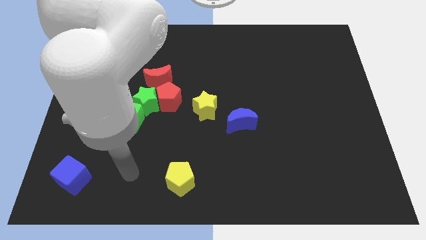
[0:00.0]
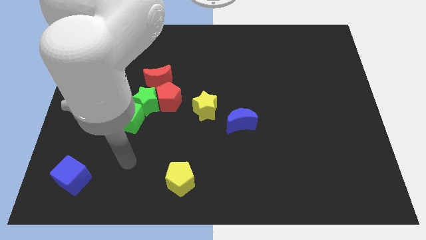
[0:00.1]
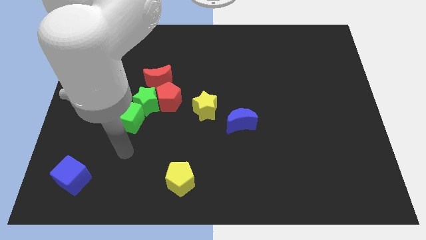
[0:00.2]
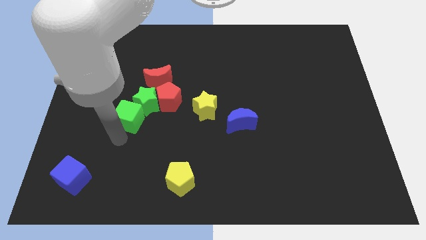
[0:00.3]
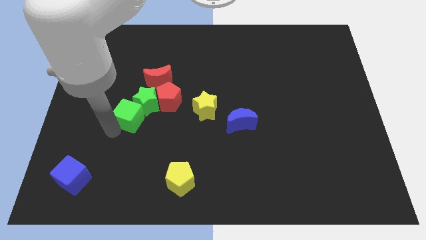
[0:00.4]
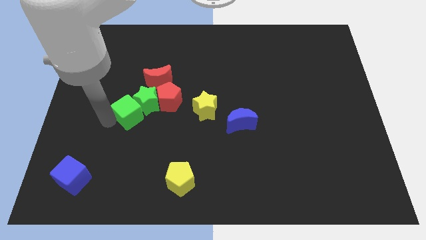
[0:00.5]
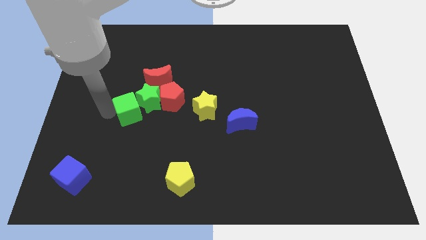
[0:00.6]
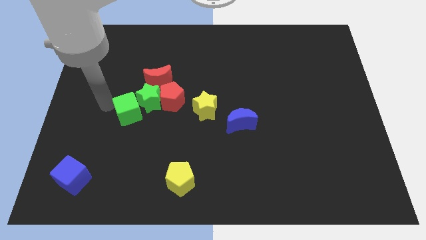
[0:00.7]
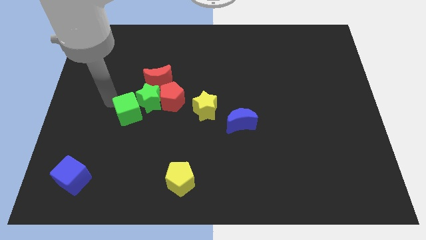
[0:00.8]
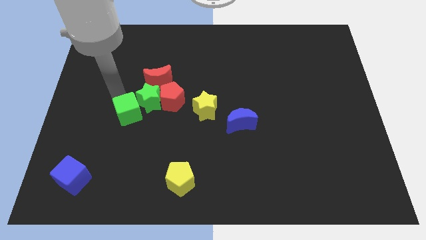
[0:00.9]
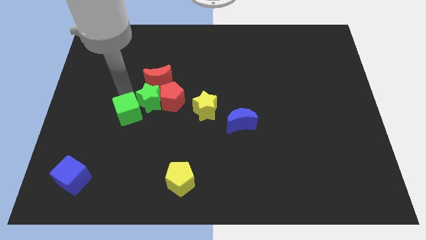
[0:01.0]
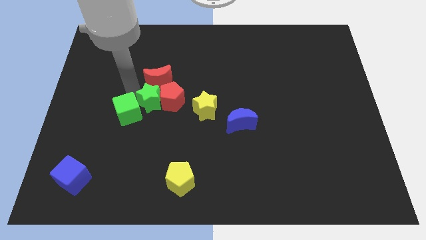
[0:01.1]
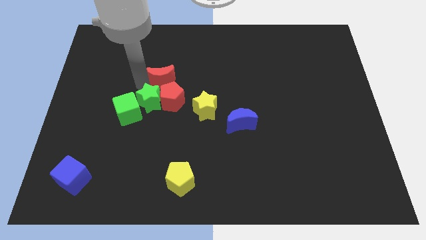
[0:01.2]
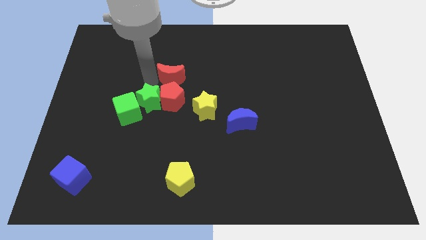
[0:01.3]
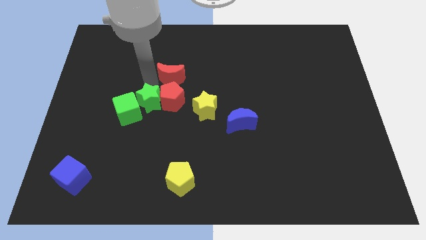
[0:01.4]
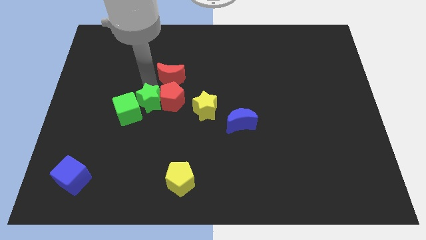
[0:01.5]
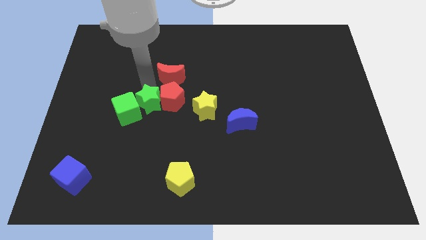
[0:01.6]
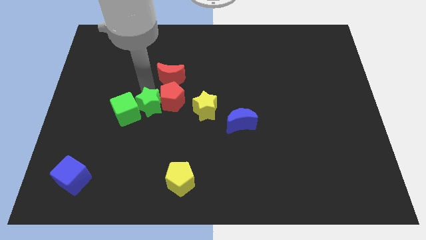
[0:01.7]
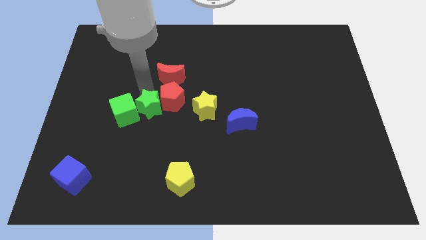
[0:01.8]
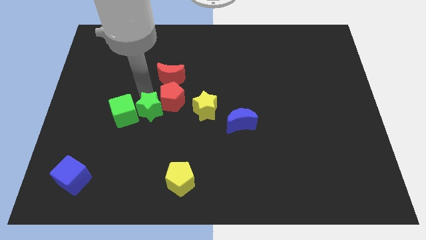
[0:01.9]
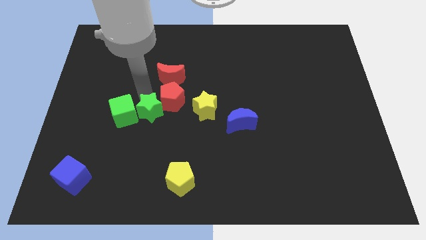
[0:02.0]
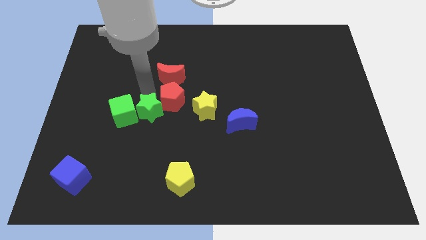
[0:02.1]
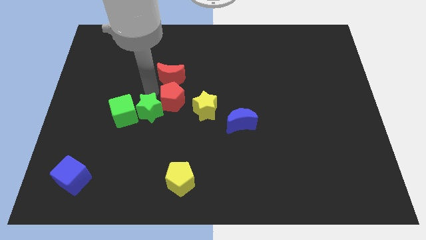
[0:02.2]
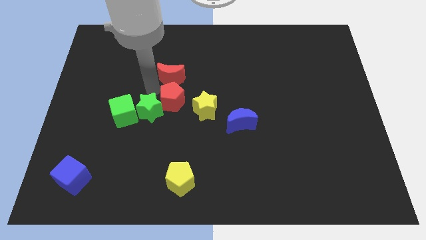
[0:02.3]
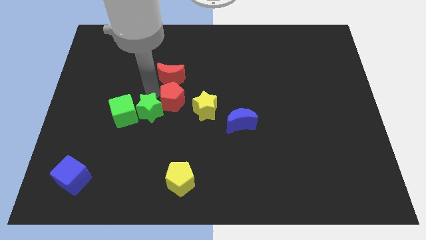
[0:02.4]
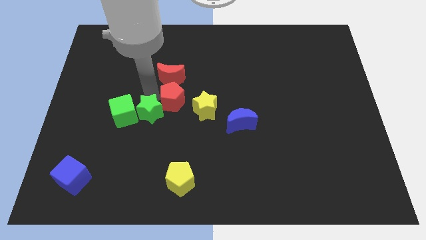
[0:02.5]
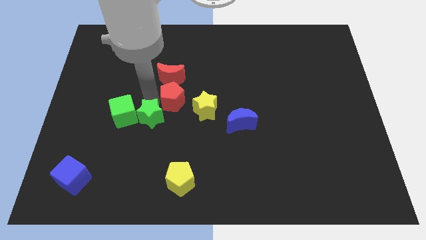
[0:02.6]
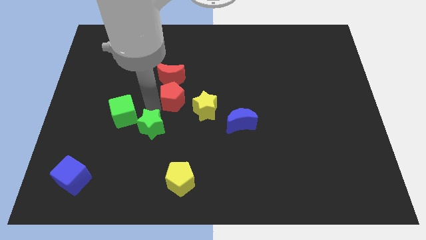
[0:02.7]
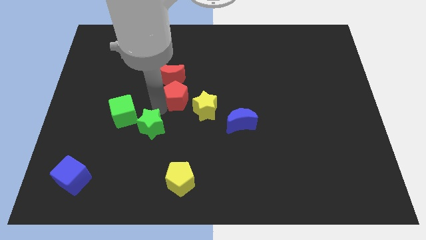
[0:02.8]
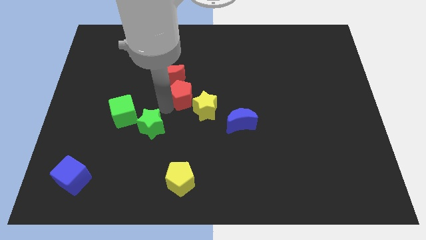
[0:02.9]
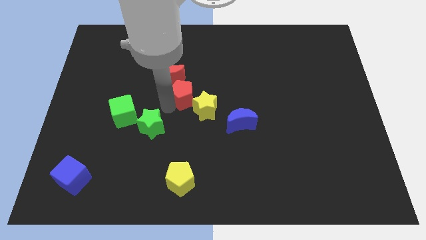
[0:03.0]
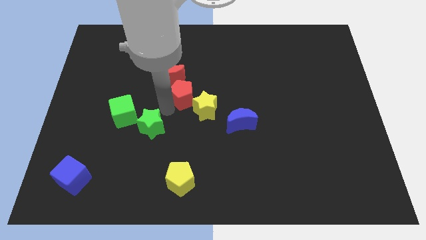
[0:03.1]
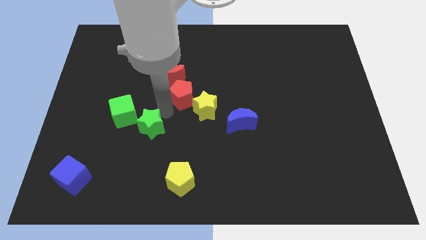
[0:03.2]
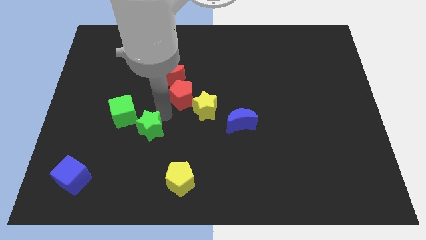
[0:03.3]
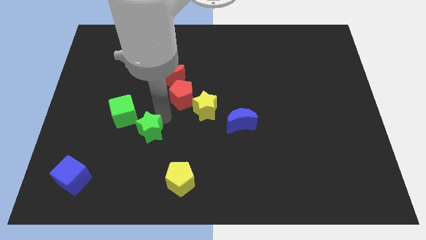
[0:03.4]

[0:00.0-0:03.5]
separate the green star from the group of blocks

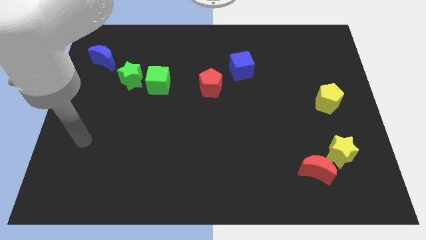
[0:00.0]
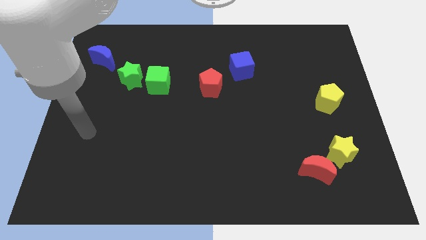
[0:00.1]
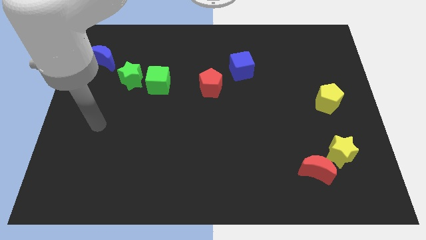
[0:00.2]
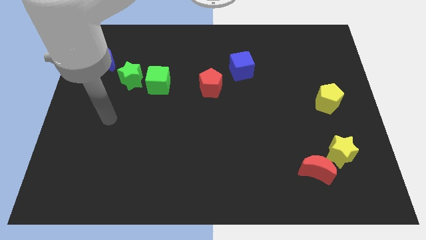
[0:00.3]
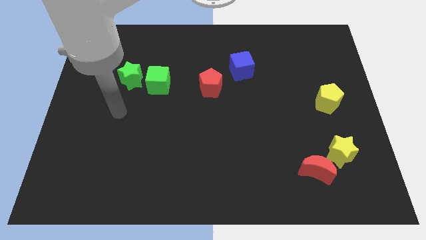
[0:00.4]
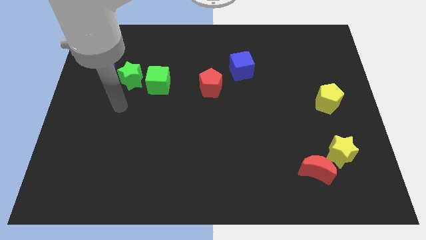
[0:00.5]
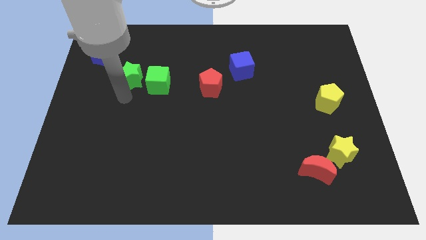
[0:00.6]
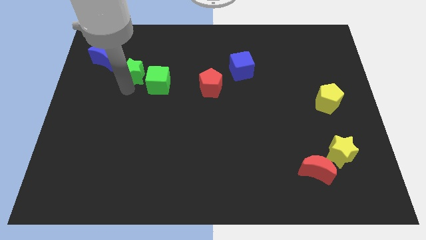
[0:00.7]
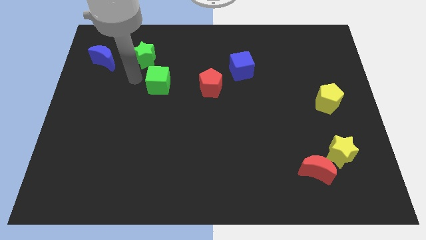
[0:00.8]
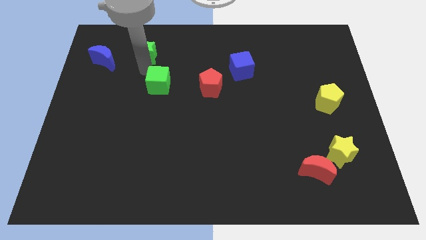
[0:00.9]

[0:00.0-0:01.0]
separate the green cube from the green star

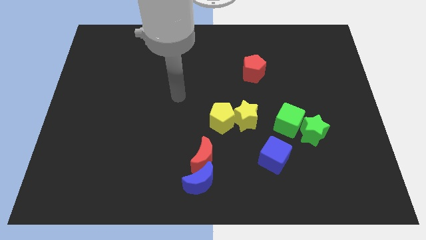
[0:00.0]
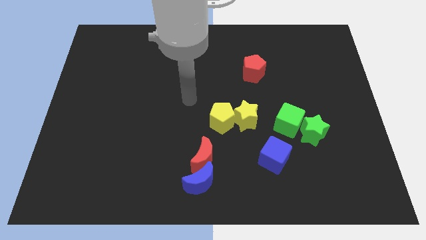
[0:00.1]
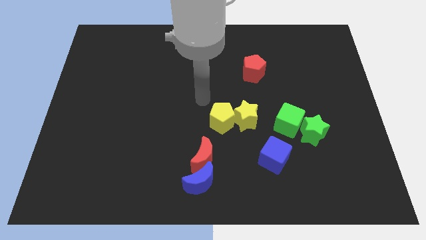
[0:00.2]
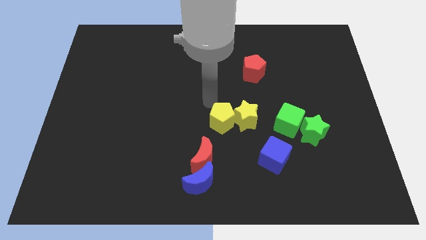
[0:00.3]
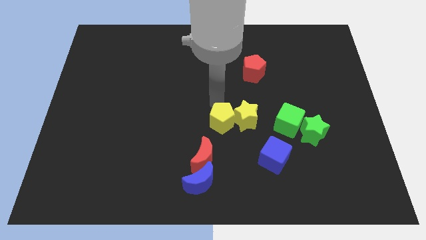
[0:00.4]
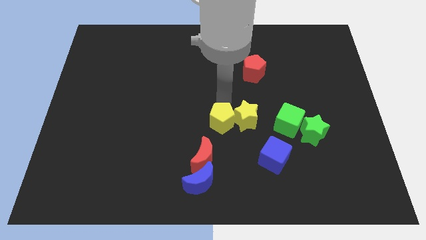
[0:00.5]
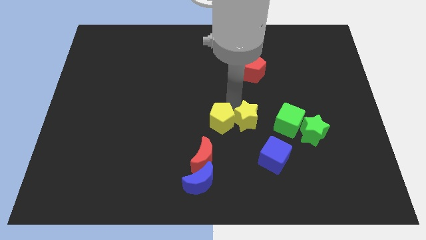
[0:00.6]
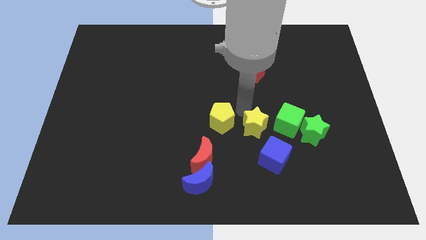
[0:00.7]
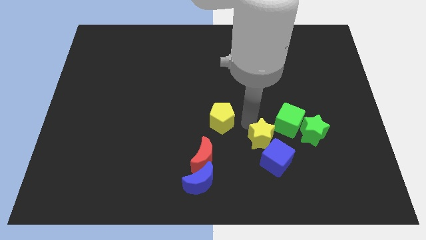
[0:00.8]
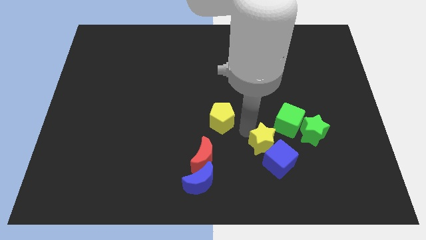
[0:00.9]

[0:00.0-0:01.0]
pull the yellow pentagon apart from the yellow star

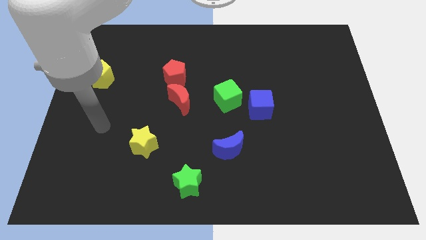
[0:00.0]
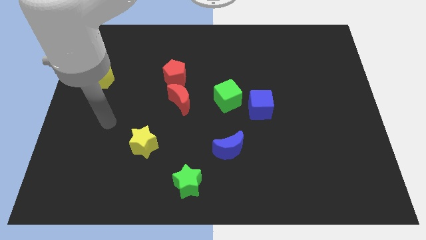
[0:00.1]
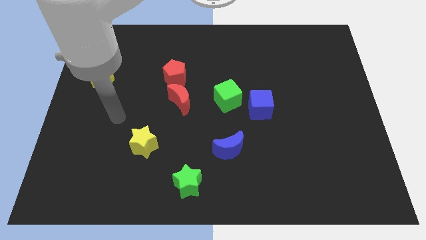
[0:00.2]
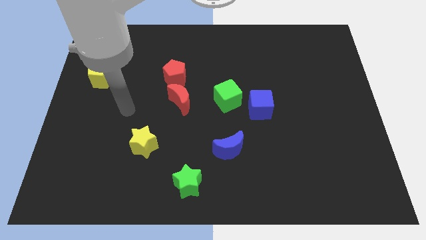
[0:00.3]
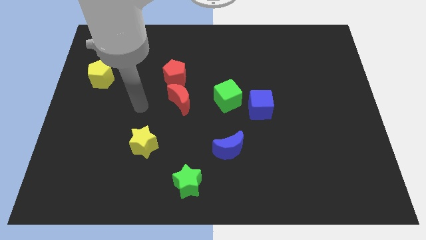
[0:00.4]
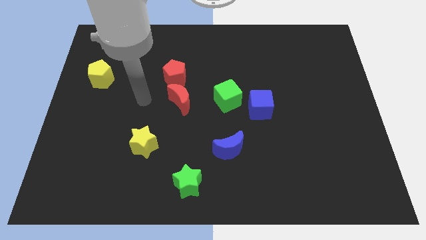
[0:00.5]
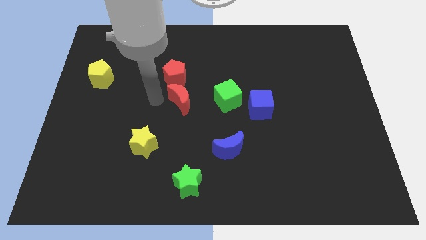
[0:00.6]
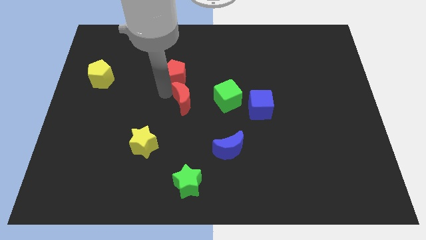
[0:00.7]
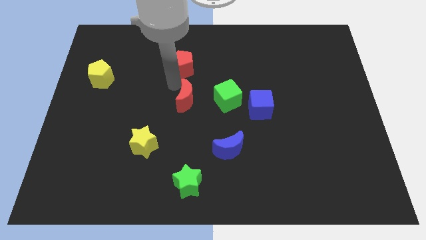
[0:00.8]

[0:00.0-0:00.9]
pull the red moon apart from the red pentagon

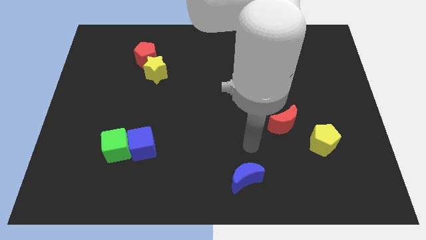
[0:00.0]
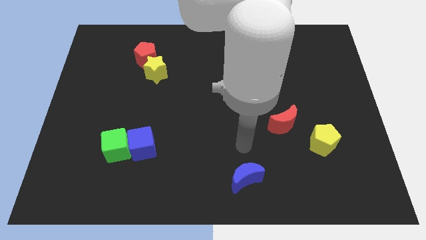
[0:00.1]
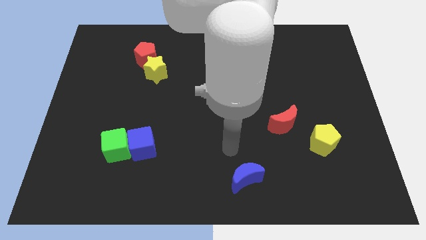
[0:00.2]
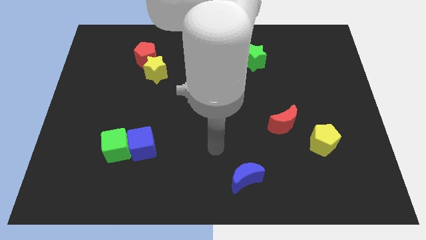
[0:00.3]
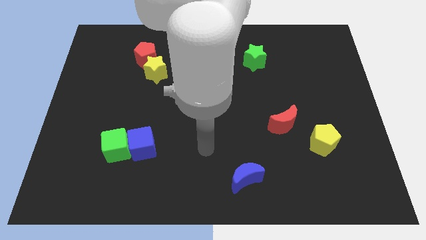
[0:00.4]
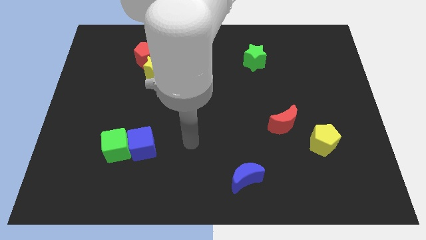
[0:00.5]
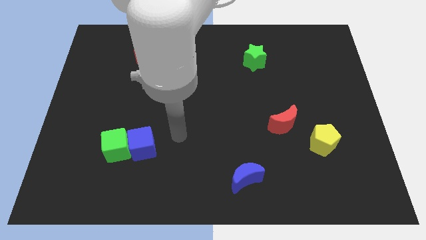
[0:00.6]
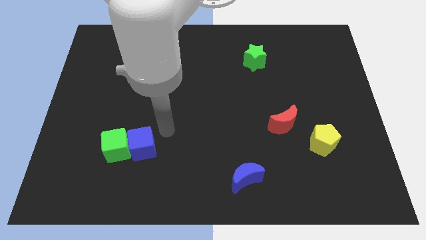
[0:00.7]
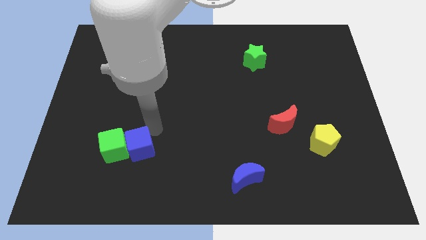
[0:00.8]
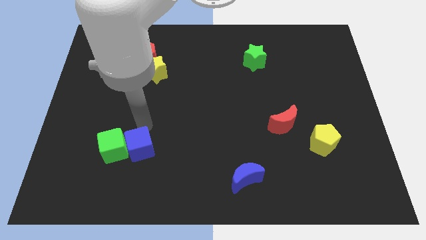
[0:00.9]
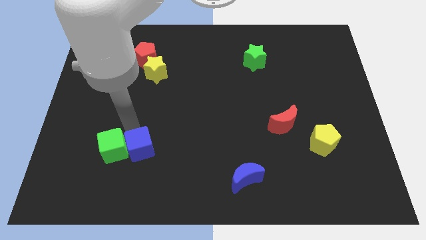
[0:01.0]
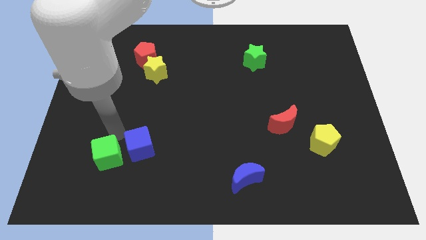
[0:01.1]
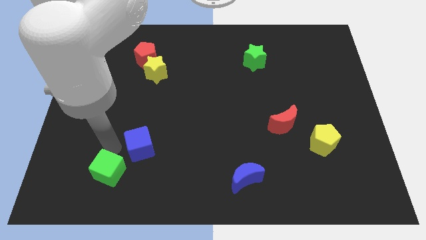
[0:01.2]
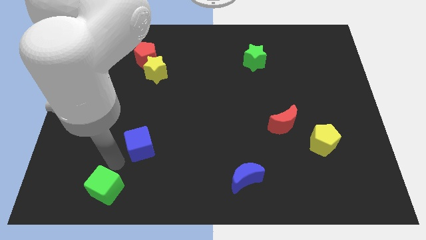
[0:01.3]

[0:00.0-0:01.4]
move the blue cube away from the green cube

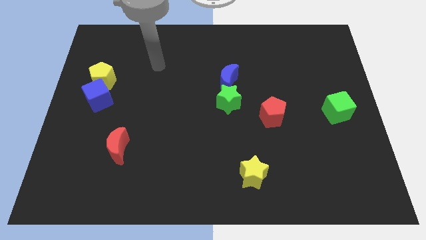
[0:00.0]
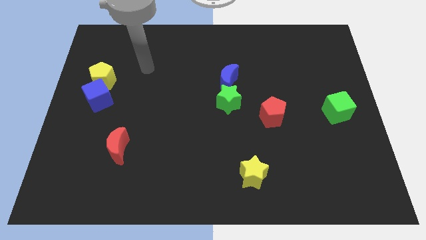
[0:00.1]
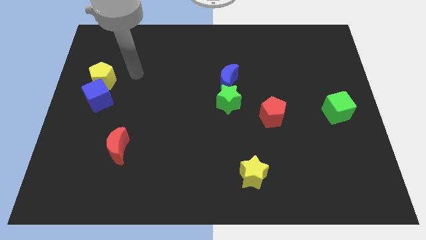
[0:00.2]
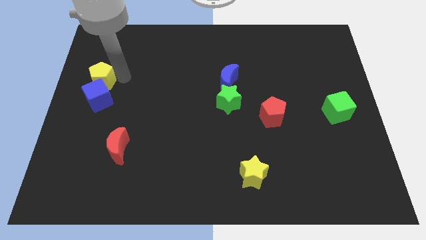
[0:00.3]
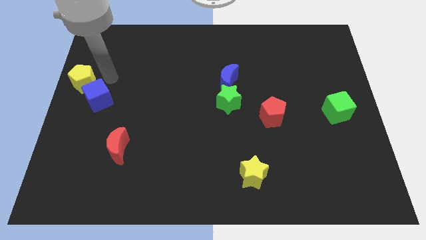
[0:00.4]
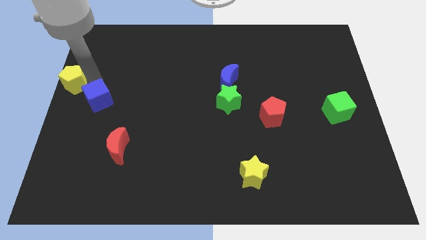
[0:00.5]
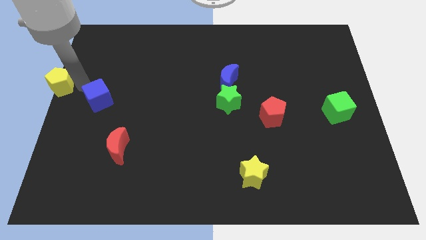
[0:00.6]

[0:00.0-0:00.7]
move the blue cube away from the yellow pentagon

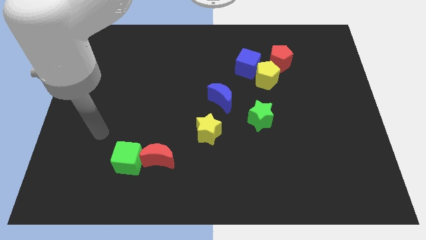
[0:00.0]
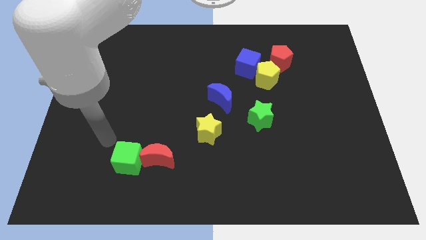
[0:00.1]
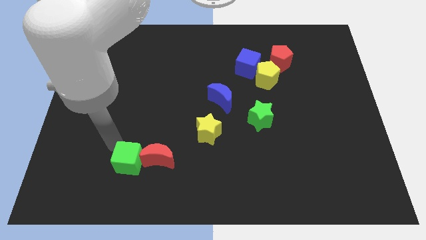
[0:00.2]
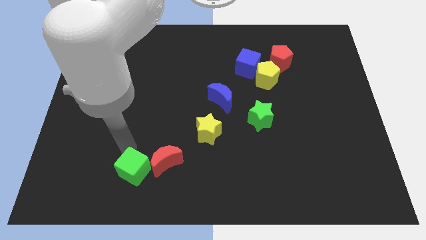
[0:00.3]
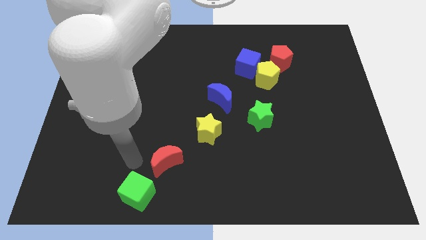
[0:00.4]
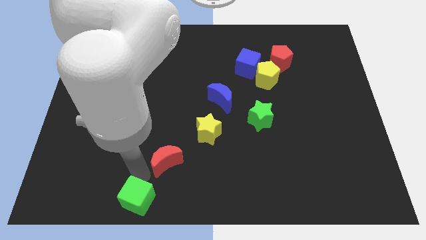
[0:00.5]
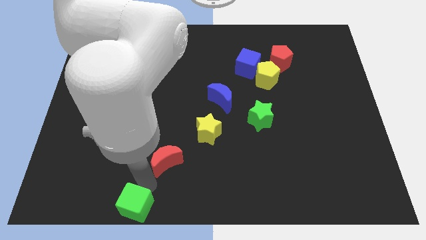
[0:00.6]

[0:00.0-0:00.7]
move the red moon away from the green cube
